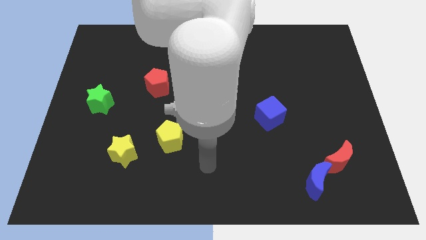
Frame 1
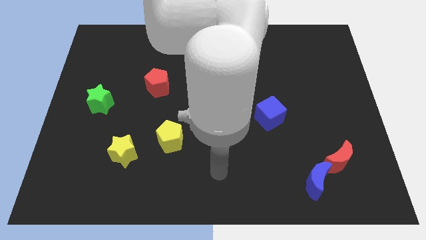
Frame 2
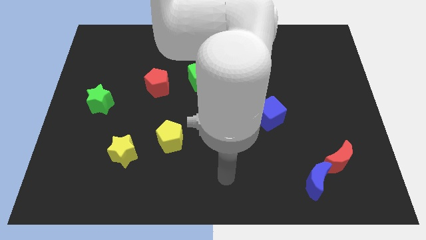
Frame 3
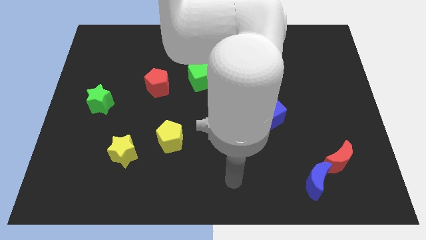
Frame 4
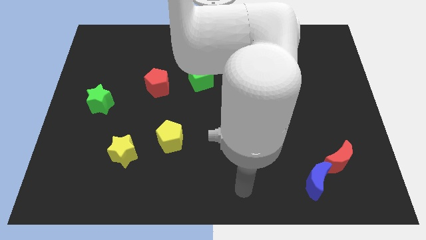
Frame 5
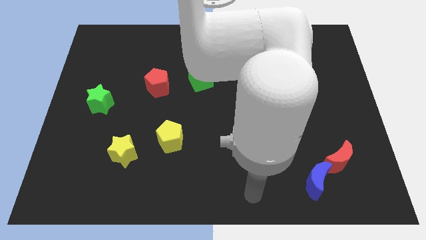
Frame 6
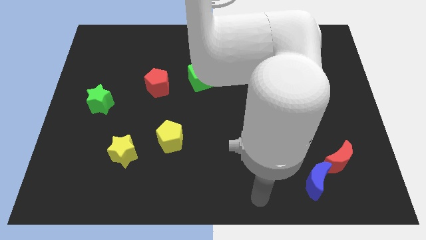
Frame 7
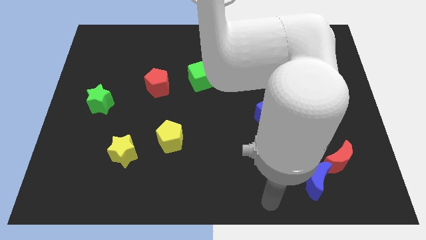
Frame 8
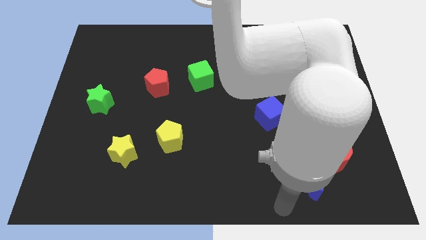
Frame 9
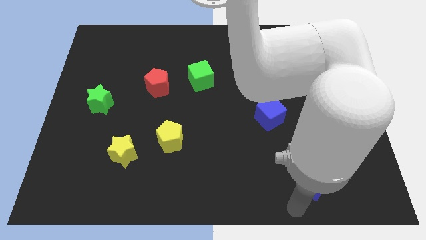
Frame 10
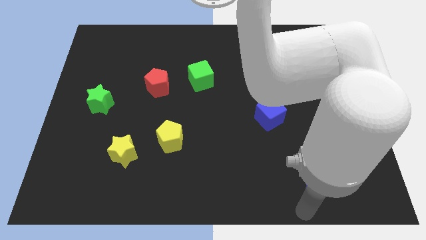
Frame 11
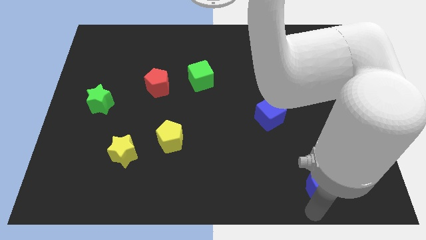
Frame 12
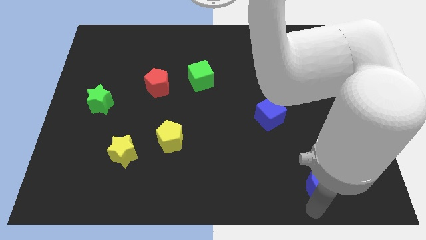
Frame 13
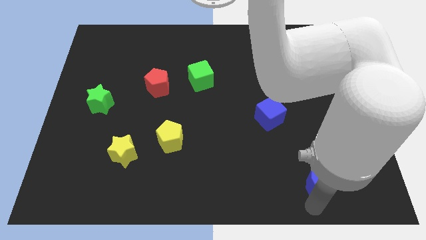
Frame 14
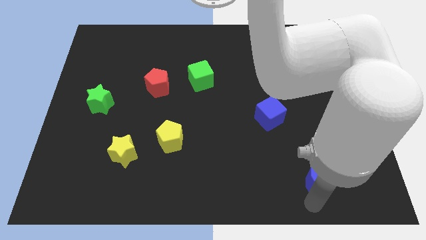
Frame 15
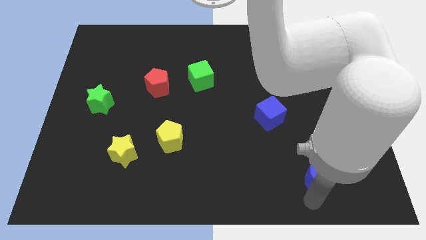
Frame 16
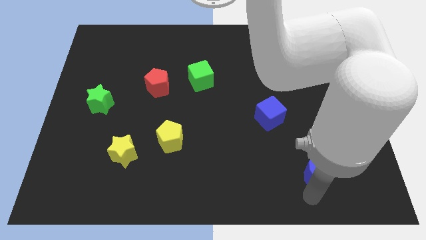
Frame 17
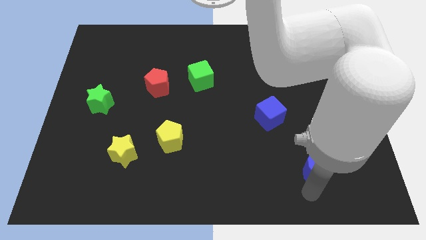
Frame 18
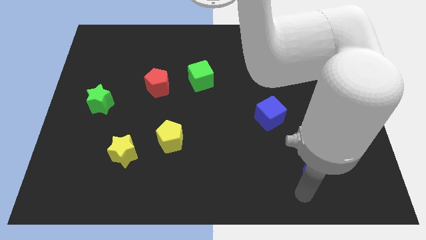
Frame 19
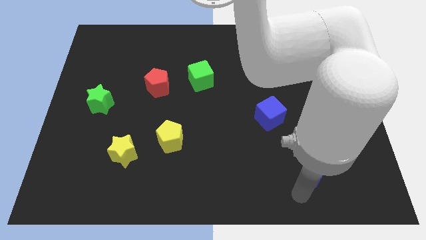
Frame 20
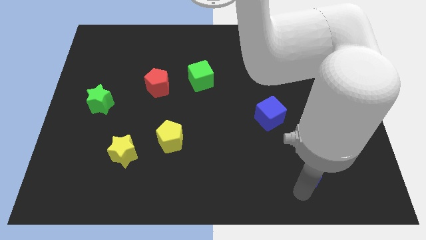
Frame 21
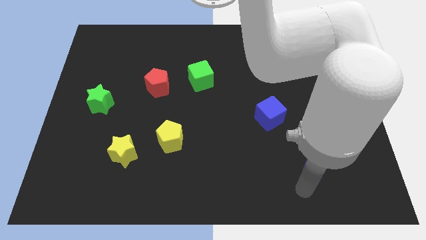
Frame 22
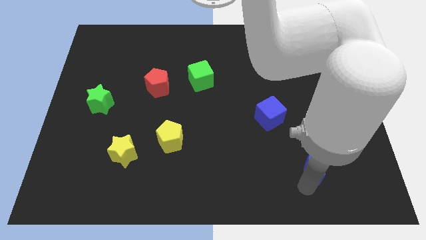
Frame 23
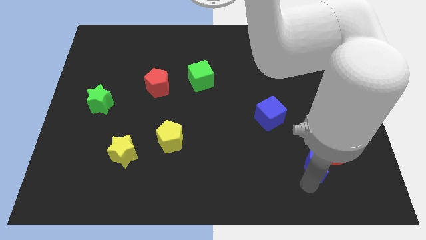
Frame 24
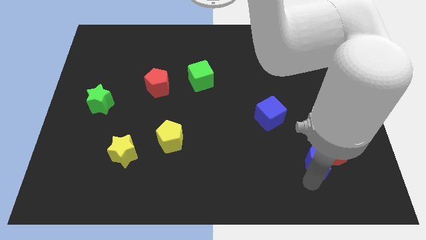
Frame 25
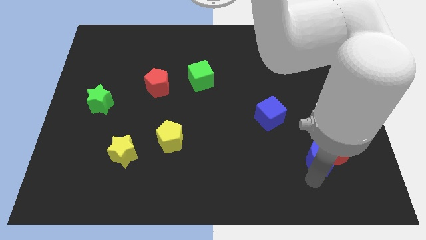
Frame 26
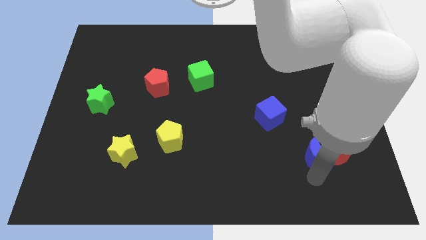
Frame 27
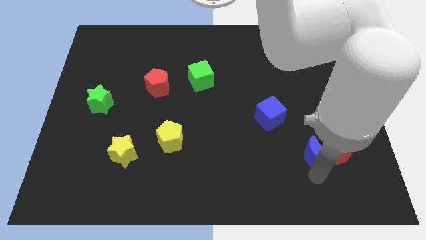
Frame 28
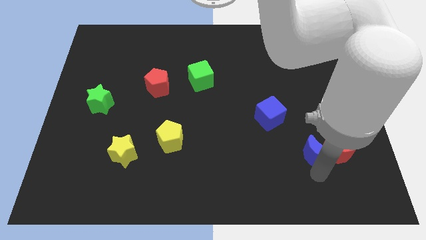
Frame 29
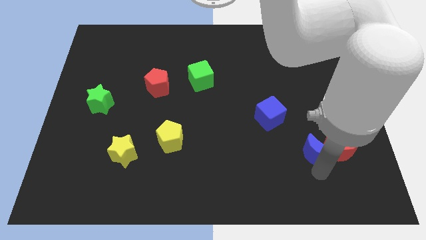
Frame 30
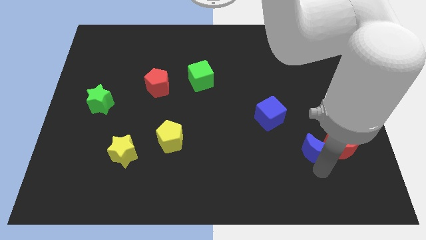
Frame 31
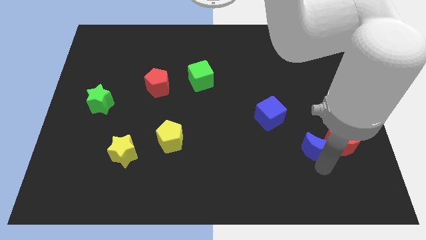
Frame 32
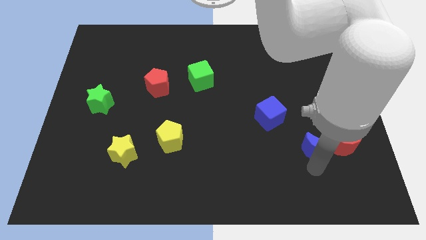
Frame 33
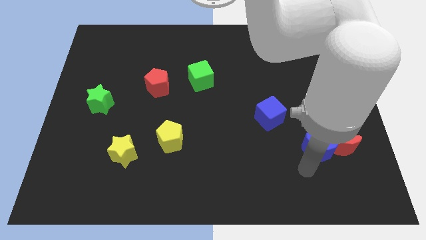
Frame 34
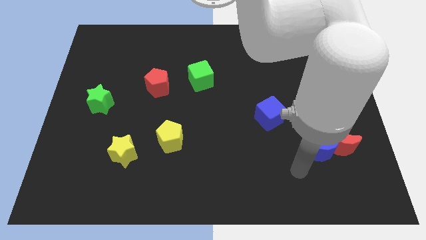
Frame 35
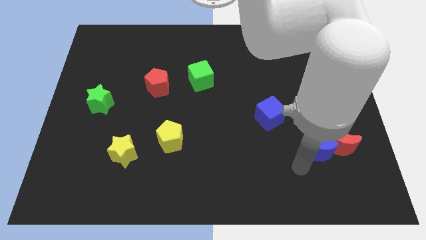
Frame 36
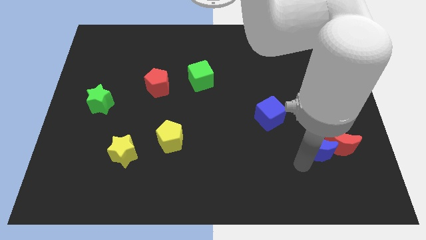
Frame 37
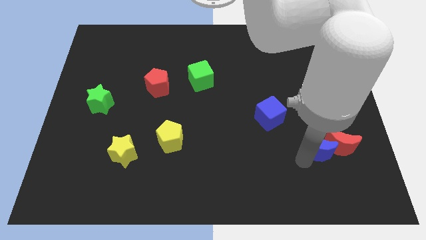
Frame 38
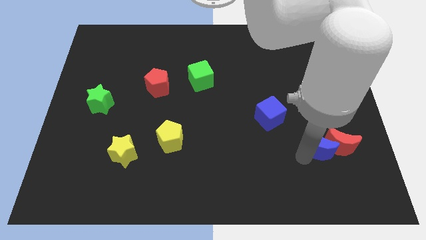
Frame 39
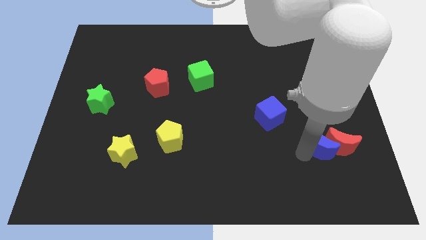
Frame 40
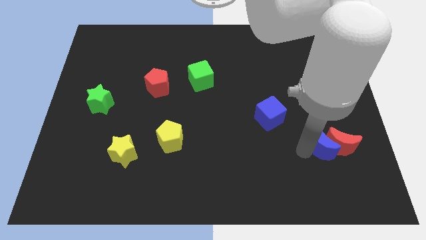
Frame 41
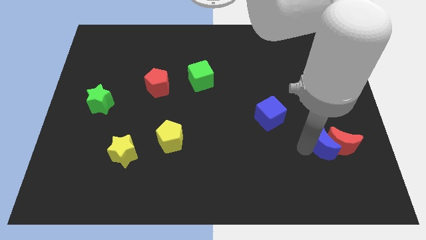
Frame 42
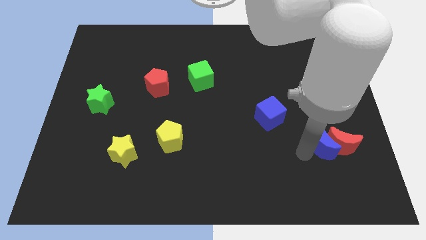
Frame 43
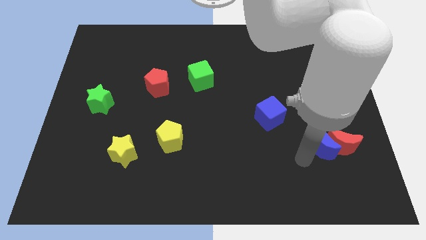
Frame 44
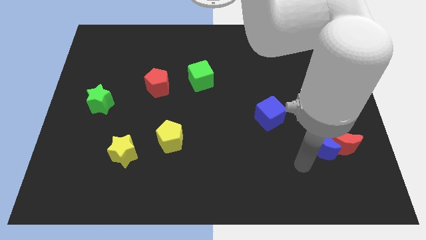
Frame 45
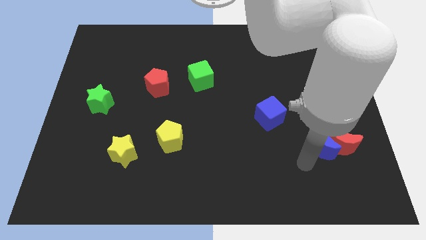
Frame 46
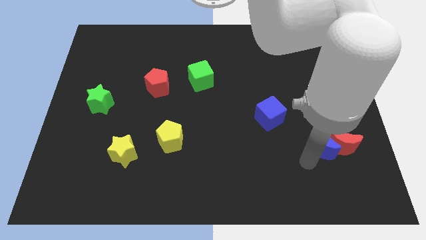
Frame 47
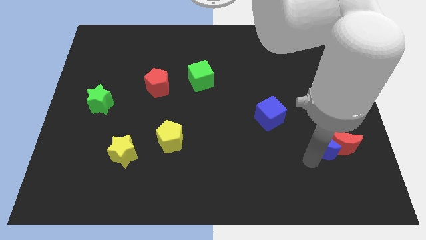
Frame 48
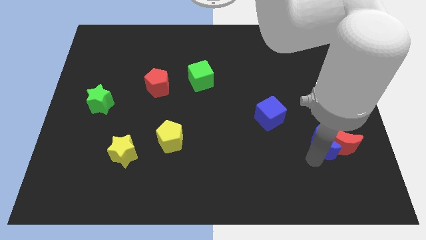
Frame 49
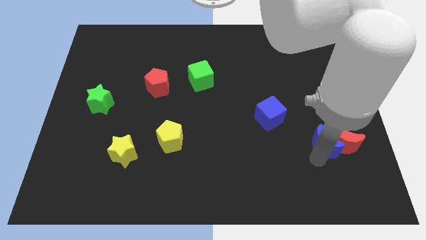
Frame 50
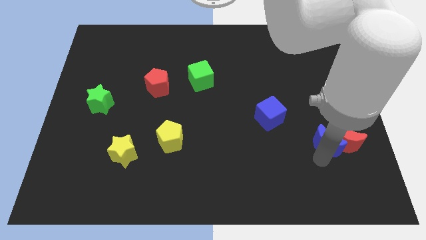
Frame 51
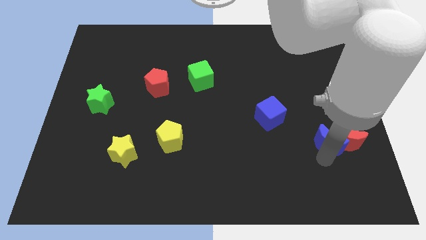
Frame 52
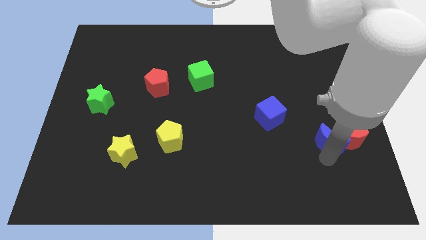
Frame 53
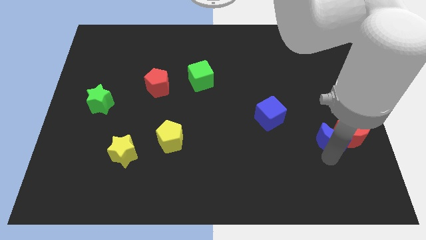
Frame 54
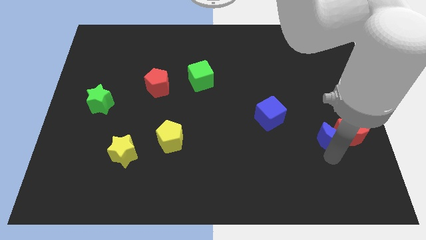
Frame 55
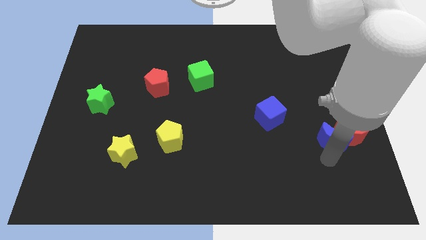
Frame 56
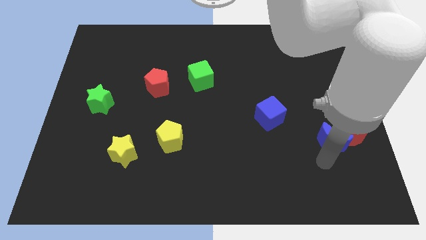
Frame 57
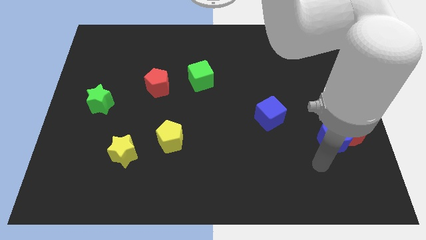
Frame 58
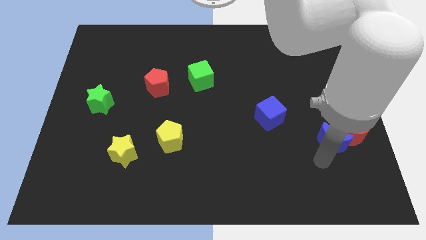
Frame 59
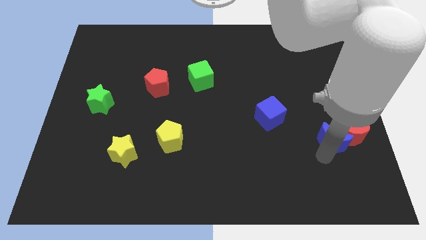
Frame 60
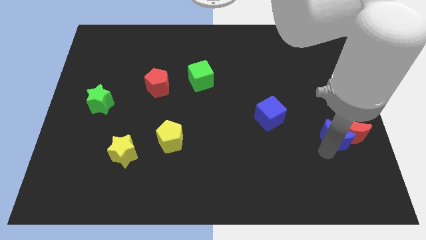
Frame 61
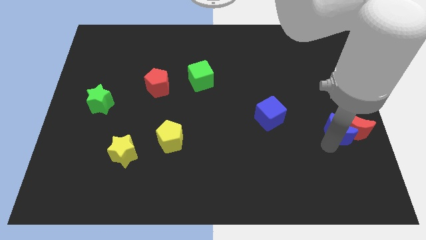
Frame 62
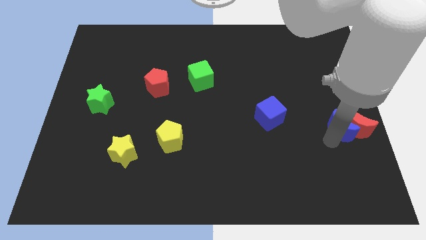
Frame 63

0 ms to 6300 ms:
push the blue moon to the center right

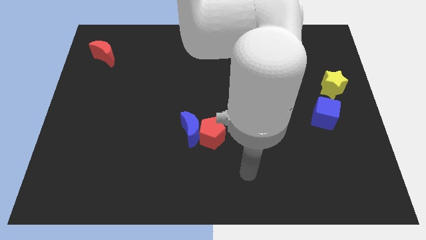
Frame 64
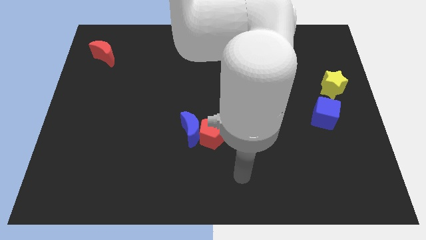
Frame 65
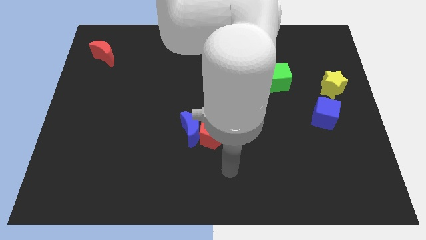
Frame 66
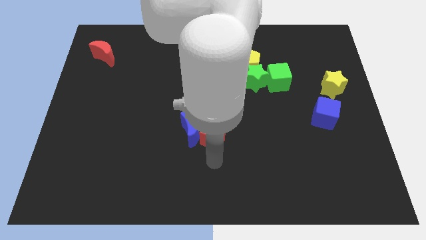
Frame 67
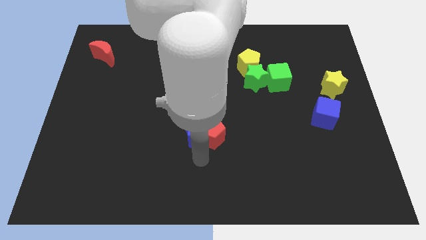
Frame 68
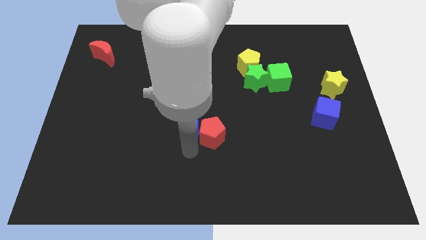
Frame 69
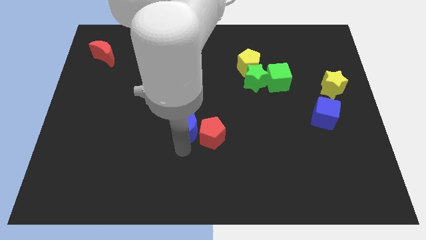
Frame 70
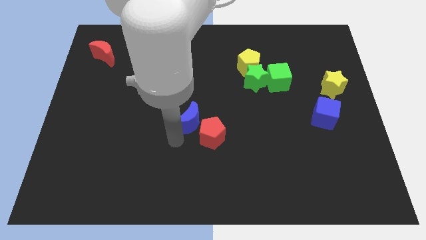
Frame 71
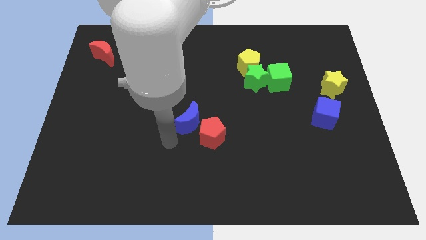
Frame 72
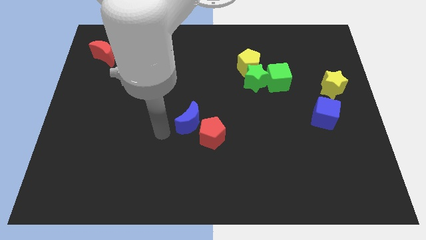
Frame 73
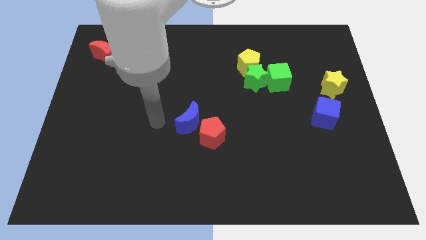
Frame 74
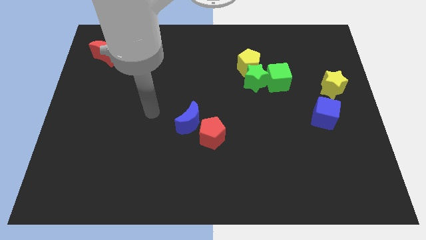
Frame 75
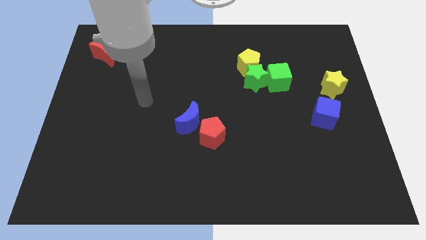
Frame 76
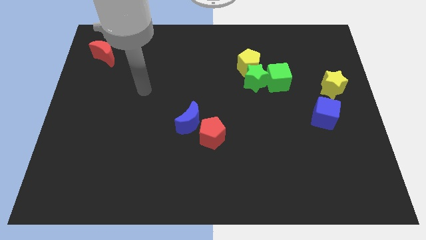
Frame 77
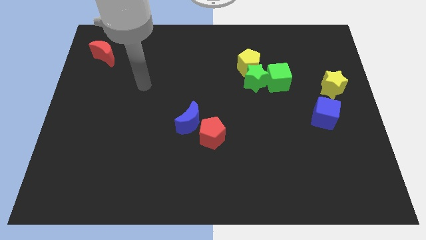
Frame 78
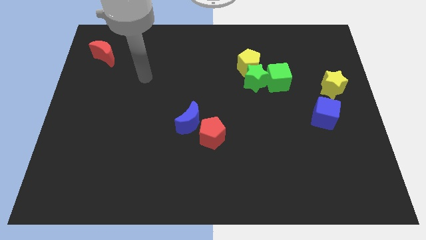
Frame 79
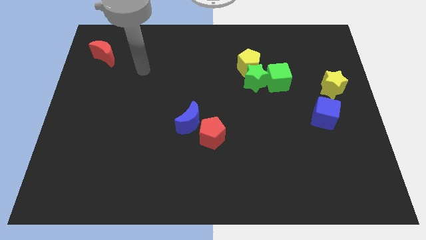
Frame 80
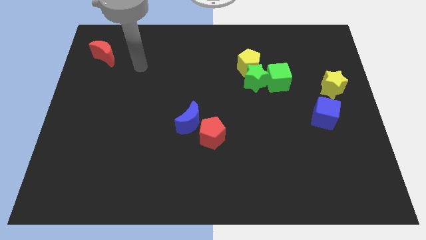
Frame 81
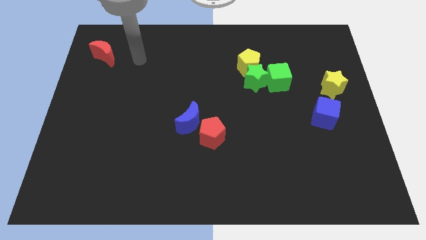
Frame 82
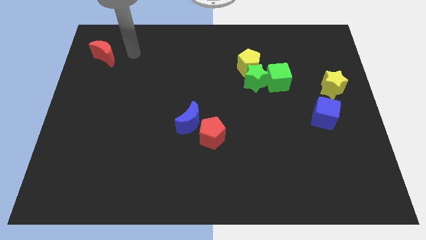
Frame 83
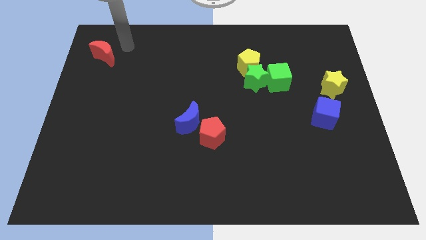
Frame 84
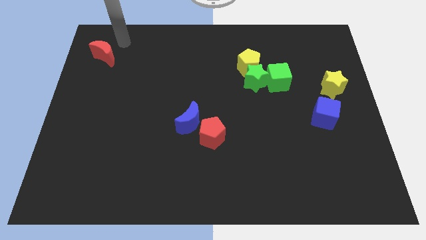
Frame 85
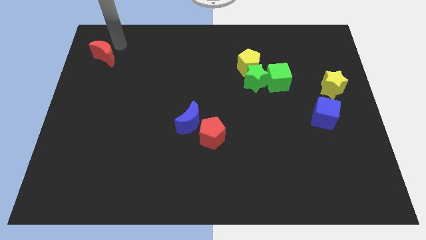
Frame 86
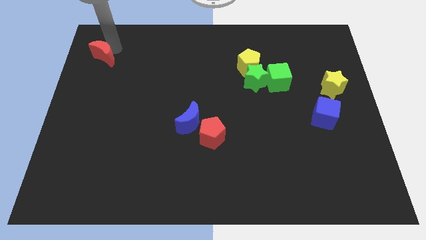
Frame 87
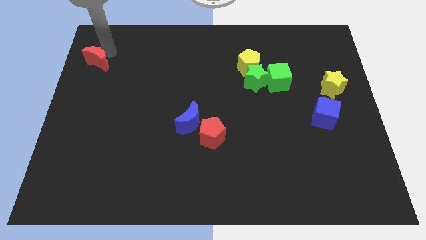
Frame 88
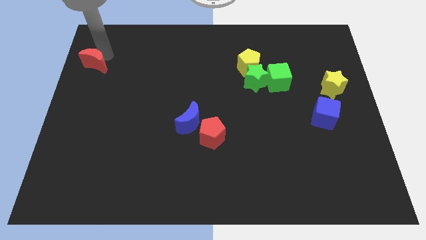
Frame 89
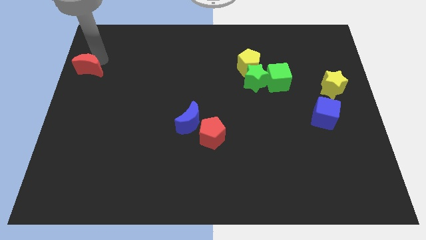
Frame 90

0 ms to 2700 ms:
put the red moon to the left side
